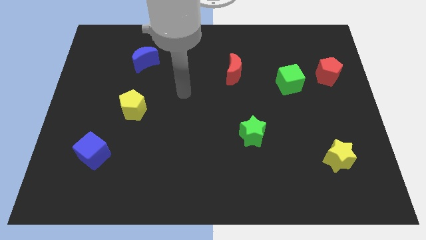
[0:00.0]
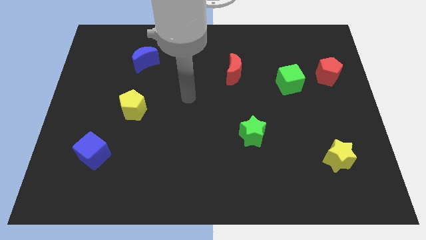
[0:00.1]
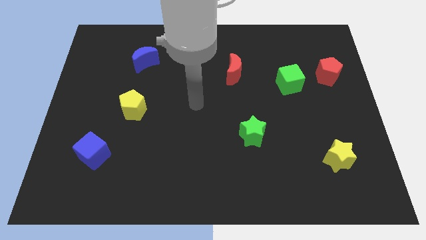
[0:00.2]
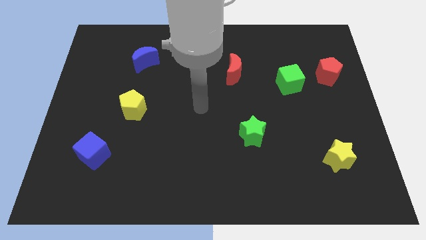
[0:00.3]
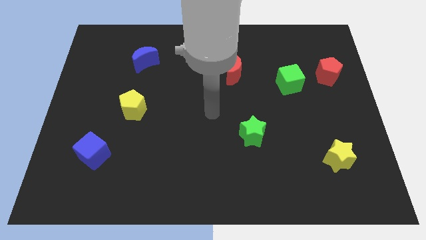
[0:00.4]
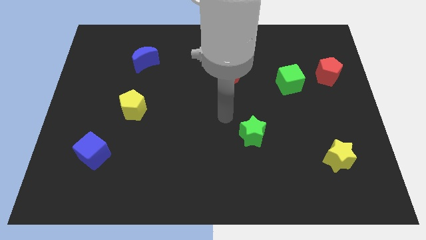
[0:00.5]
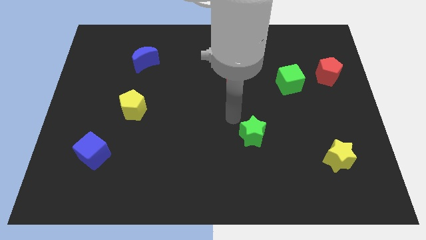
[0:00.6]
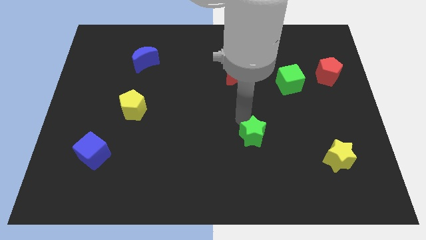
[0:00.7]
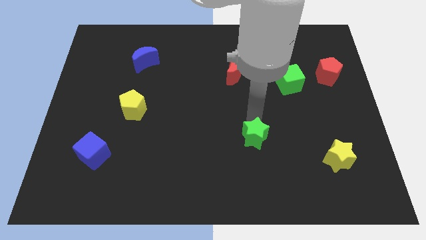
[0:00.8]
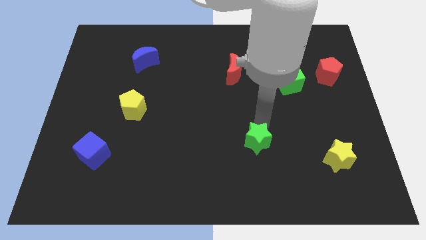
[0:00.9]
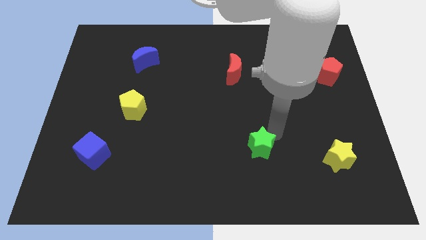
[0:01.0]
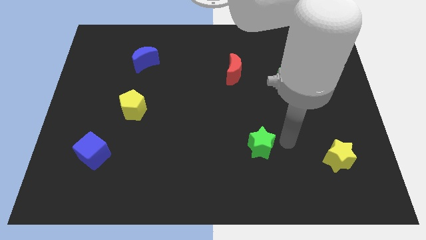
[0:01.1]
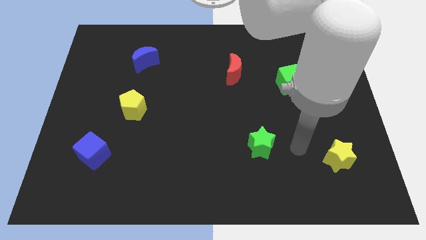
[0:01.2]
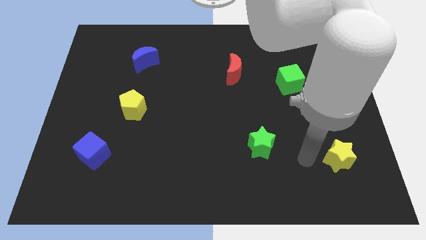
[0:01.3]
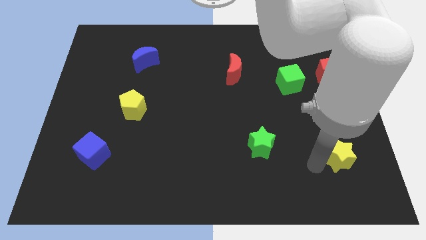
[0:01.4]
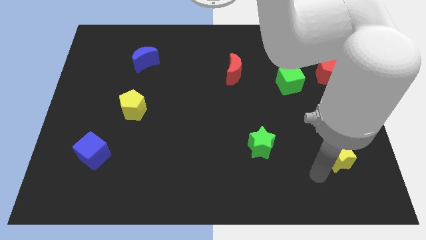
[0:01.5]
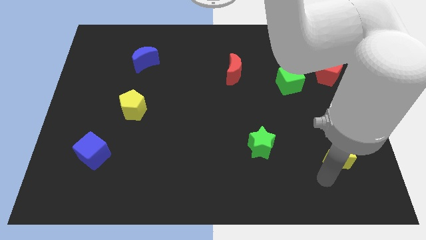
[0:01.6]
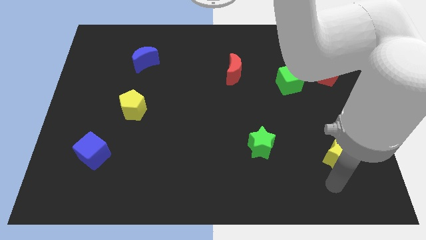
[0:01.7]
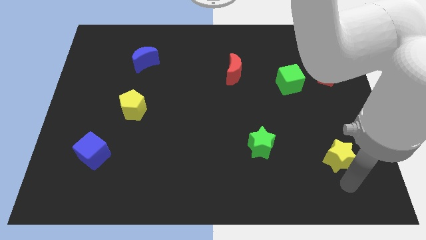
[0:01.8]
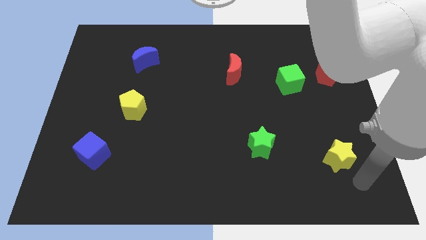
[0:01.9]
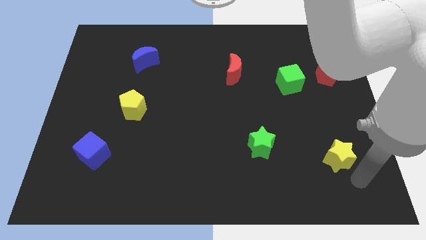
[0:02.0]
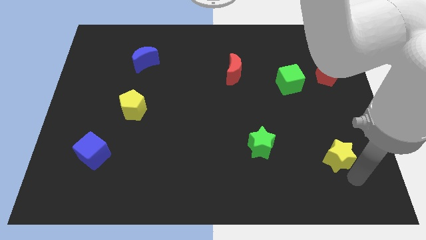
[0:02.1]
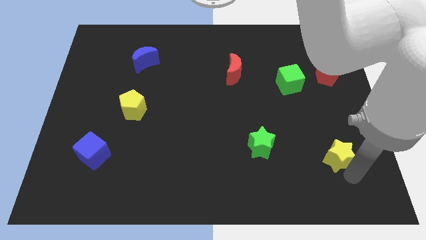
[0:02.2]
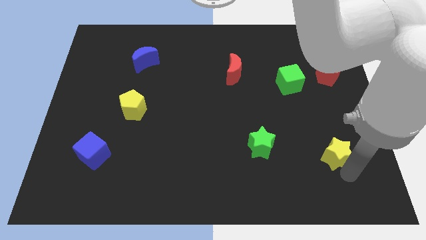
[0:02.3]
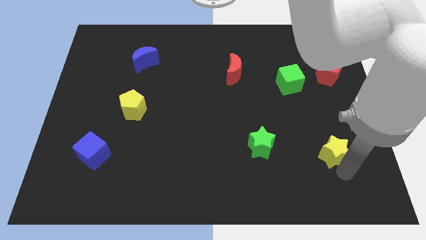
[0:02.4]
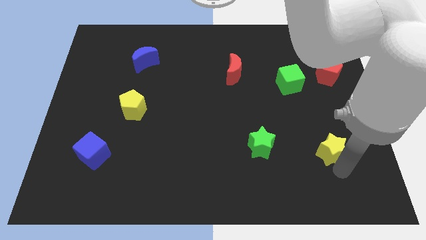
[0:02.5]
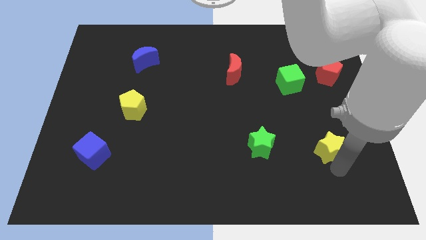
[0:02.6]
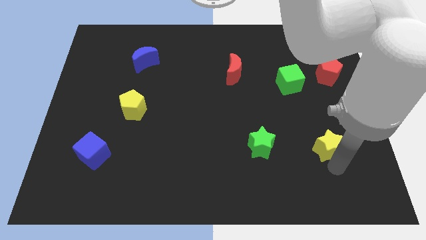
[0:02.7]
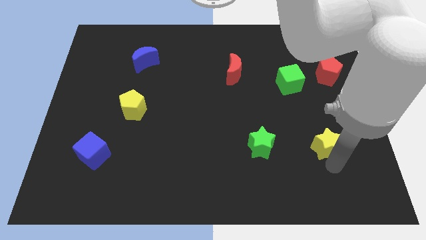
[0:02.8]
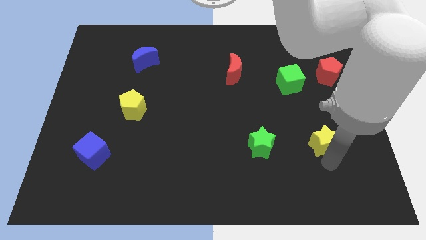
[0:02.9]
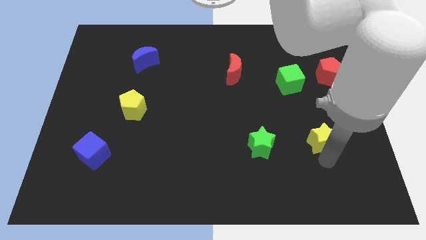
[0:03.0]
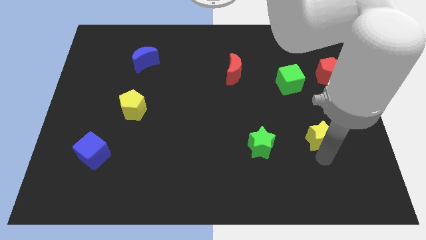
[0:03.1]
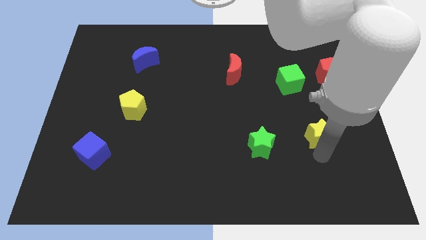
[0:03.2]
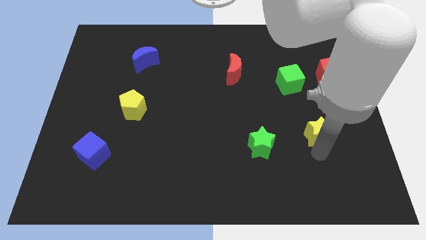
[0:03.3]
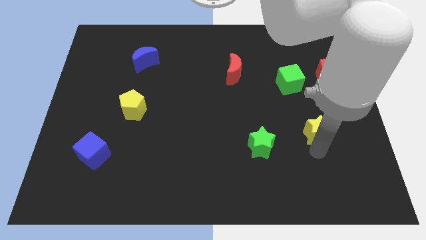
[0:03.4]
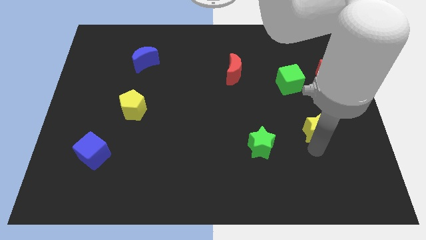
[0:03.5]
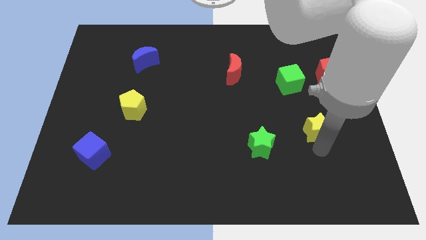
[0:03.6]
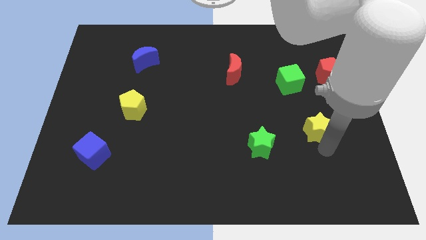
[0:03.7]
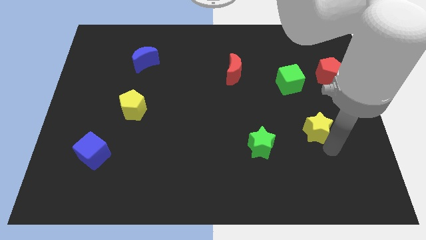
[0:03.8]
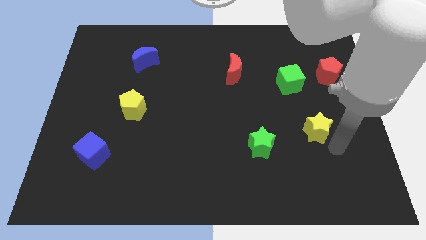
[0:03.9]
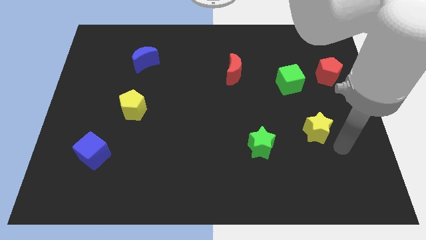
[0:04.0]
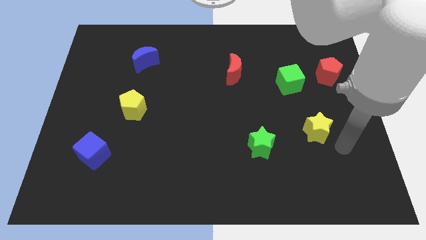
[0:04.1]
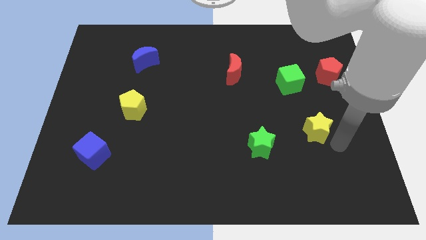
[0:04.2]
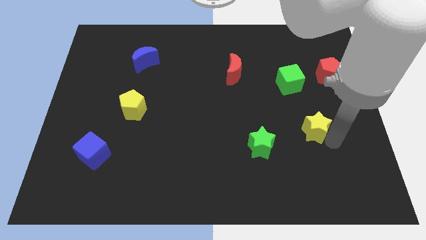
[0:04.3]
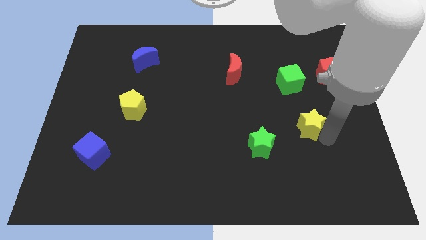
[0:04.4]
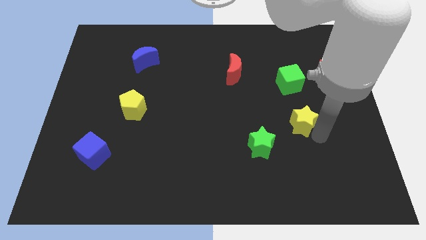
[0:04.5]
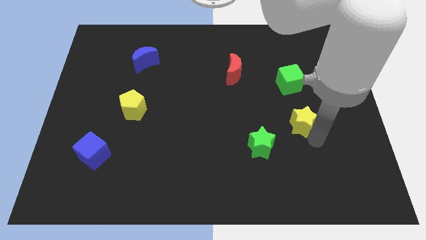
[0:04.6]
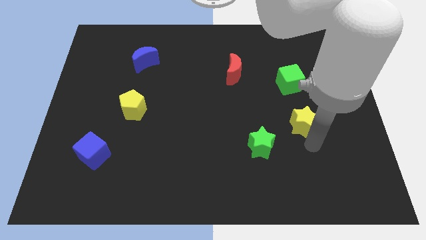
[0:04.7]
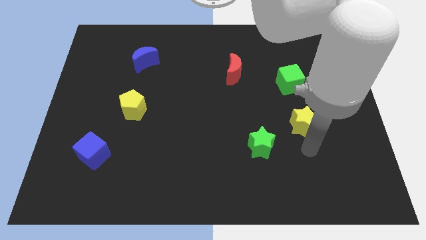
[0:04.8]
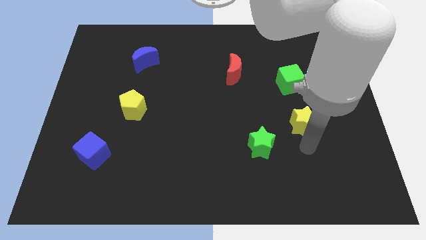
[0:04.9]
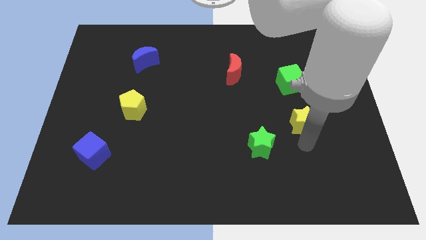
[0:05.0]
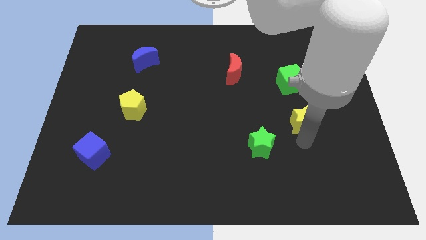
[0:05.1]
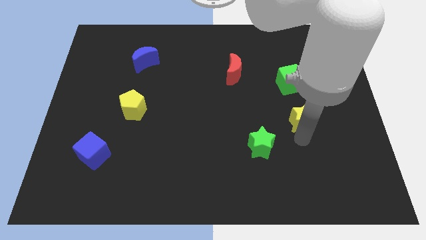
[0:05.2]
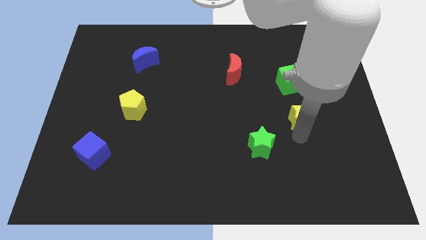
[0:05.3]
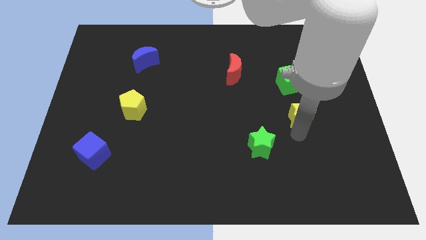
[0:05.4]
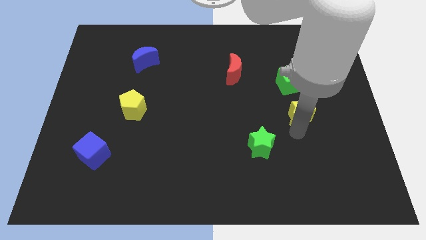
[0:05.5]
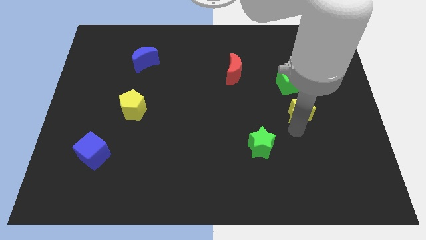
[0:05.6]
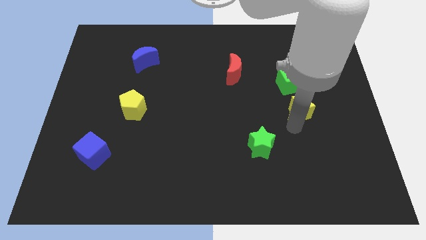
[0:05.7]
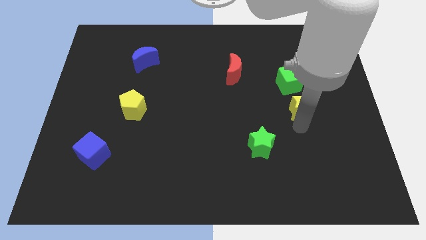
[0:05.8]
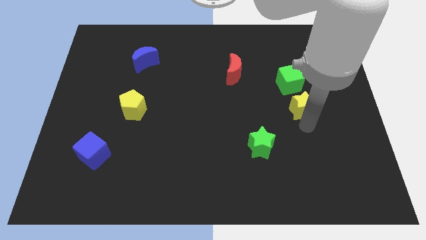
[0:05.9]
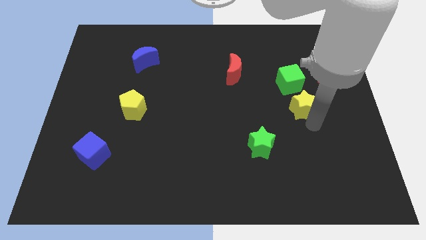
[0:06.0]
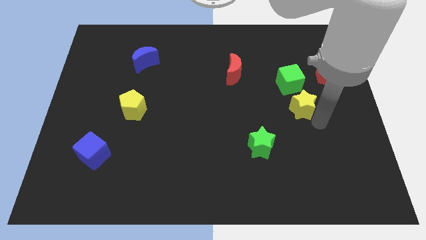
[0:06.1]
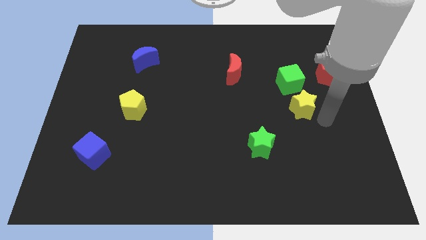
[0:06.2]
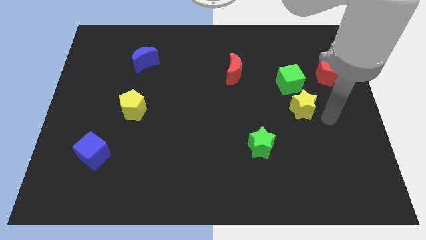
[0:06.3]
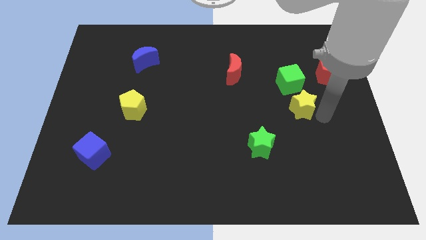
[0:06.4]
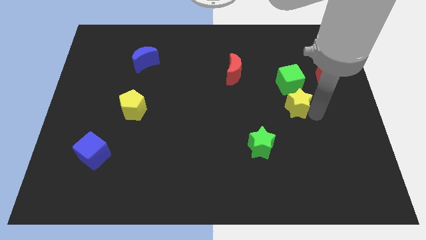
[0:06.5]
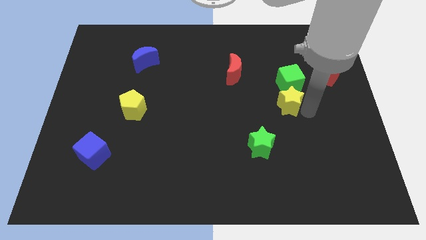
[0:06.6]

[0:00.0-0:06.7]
slide the yellow star to the bottom left side of the green cube
